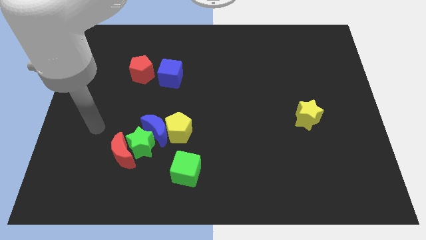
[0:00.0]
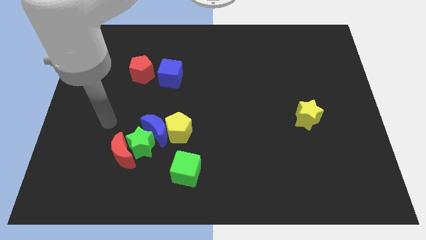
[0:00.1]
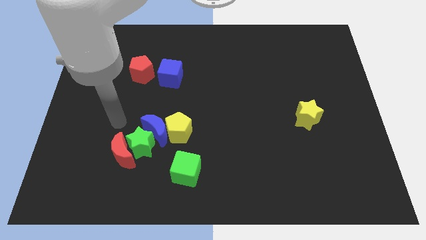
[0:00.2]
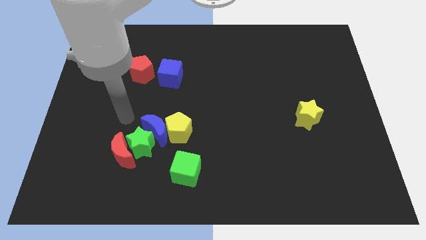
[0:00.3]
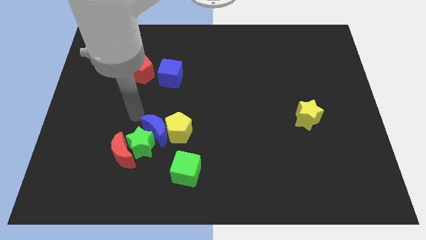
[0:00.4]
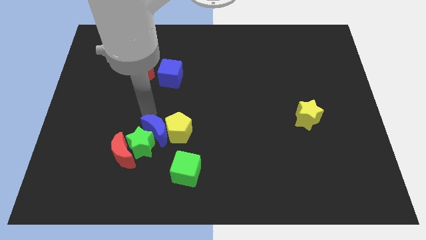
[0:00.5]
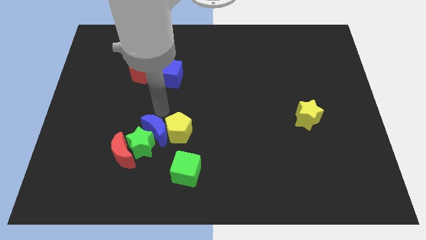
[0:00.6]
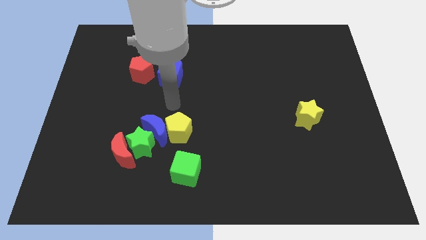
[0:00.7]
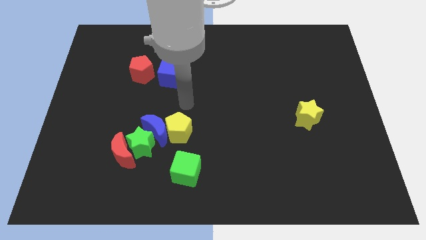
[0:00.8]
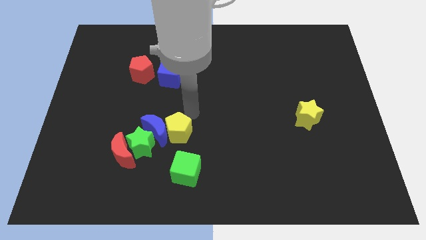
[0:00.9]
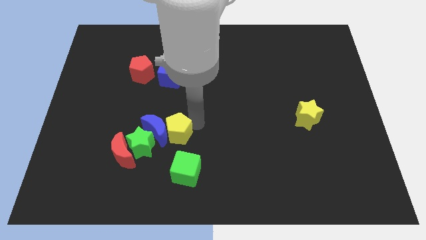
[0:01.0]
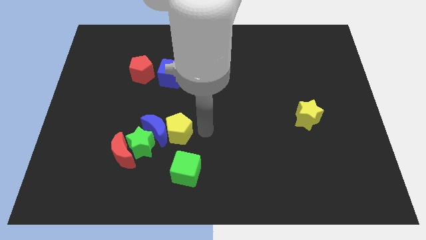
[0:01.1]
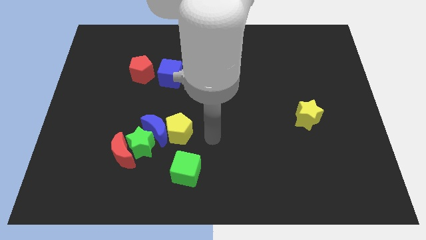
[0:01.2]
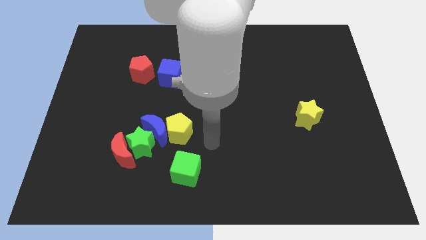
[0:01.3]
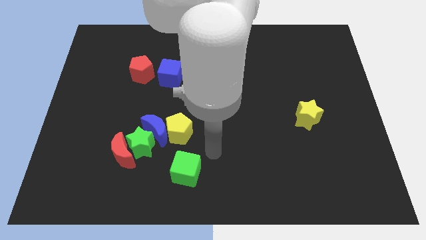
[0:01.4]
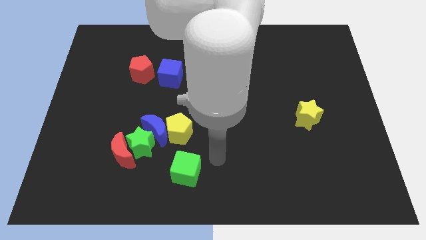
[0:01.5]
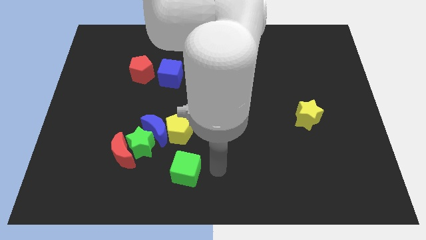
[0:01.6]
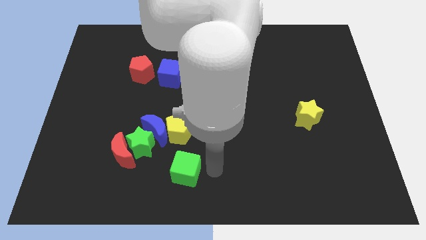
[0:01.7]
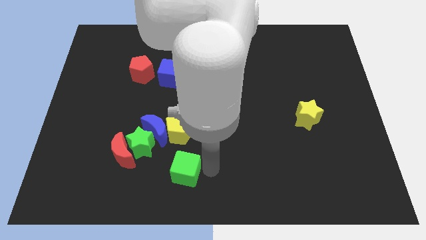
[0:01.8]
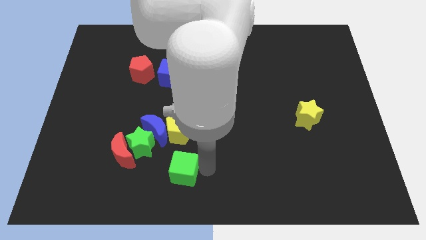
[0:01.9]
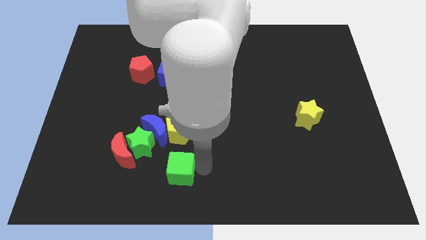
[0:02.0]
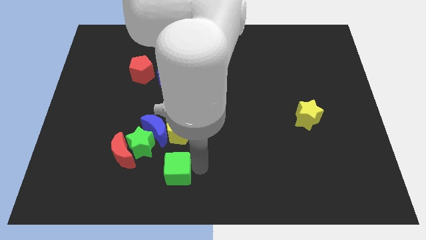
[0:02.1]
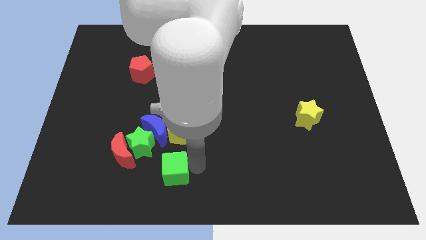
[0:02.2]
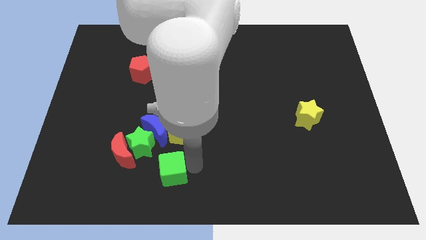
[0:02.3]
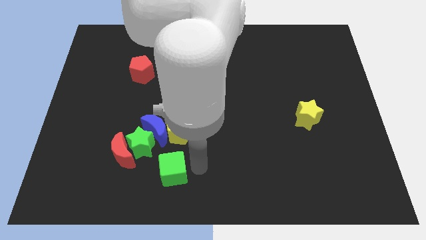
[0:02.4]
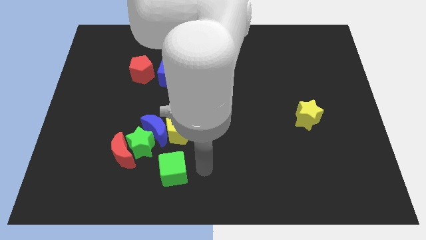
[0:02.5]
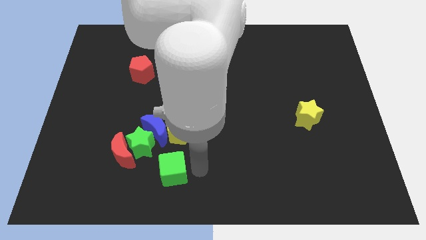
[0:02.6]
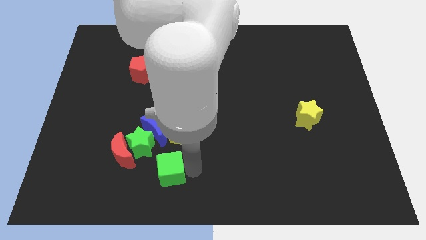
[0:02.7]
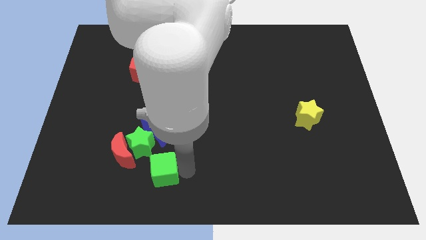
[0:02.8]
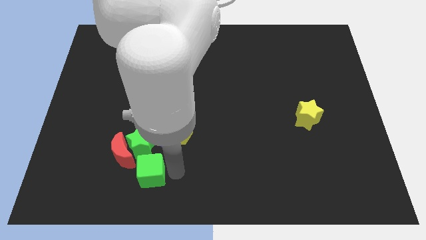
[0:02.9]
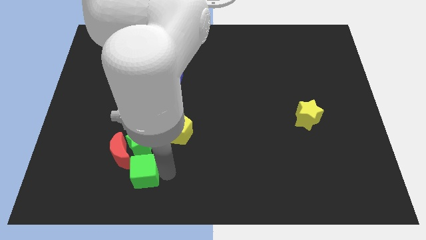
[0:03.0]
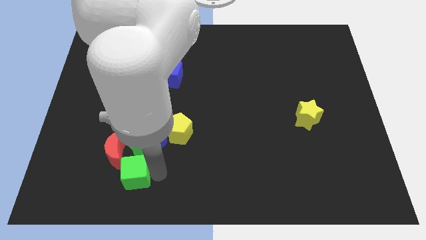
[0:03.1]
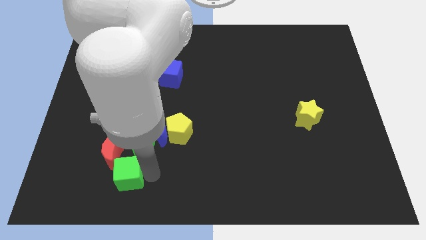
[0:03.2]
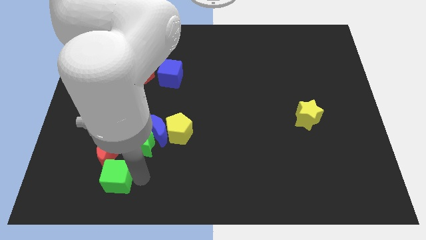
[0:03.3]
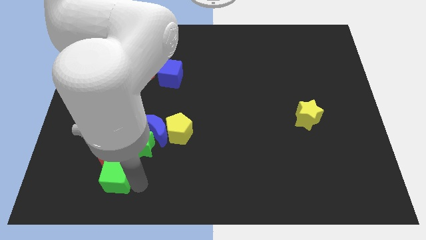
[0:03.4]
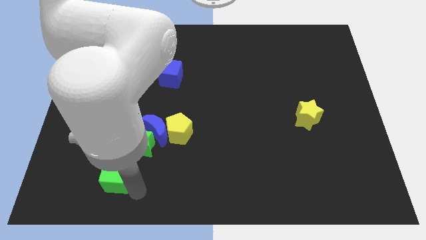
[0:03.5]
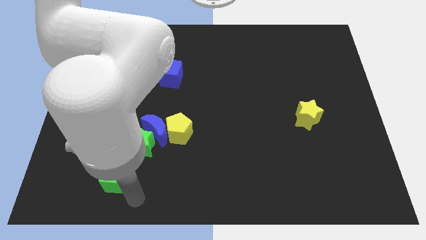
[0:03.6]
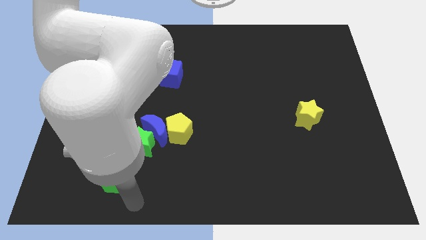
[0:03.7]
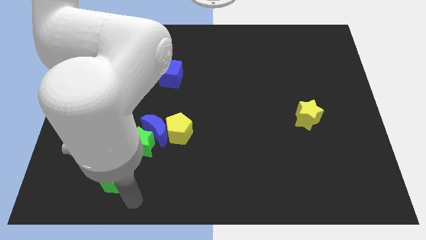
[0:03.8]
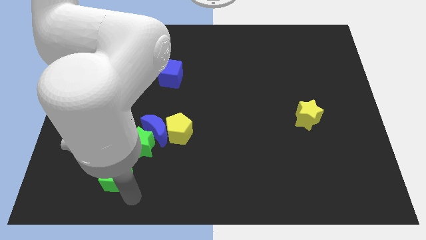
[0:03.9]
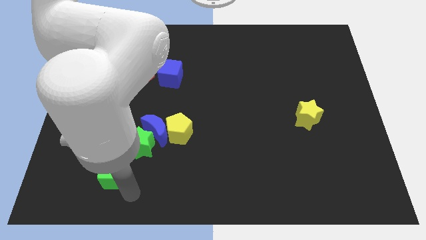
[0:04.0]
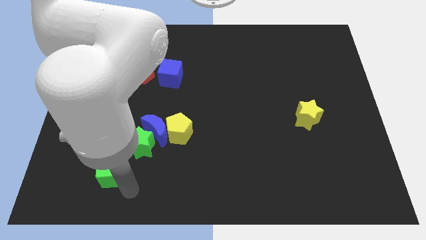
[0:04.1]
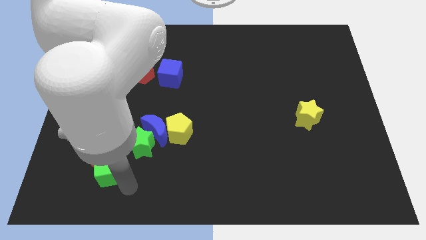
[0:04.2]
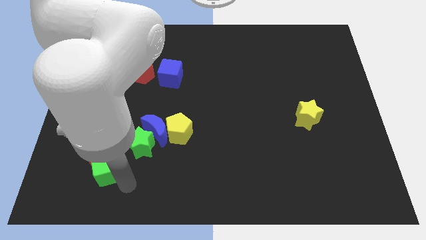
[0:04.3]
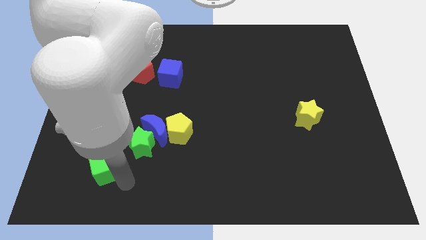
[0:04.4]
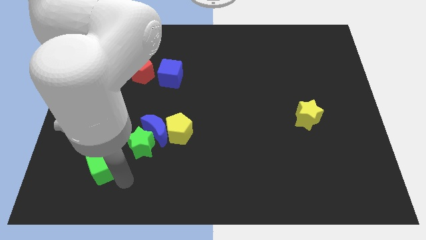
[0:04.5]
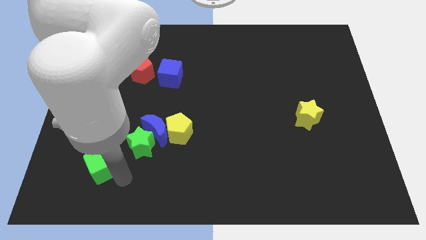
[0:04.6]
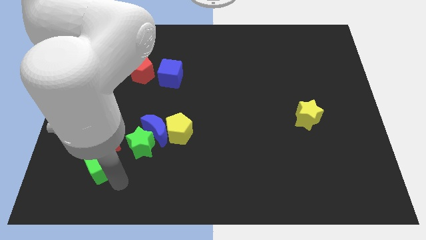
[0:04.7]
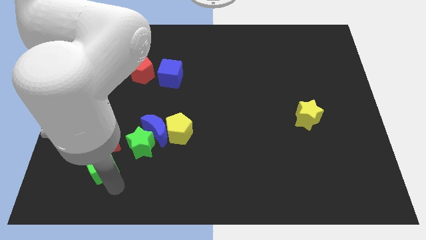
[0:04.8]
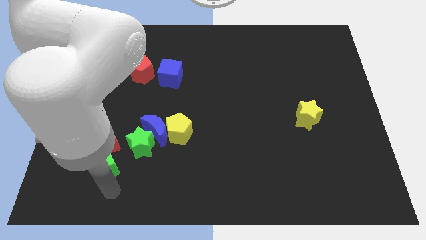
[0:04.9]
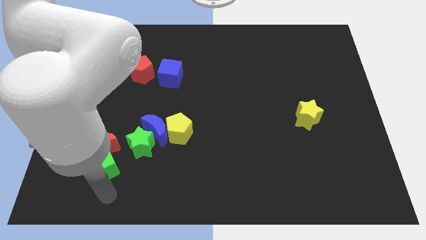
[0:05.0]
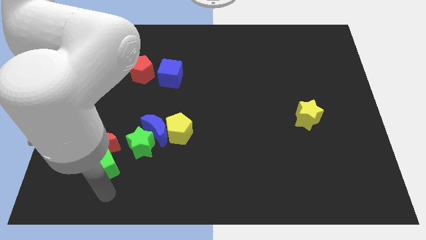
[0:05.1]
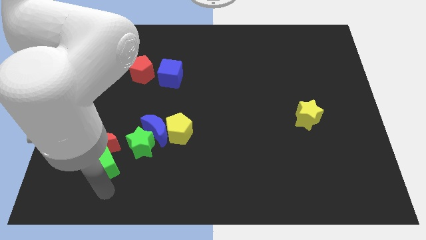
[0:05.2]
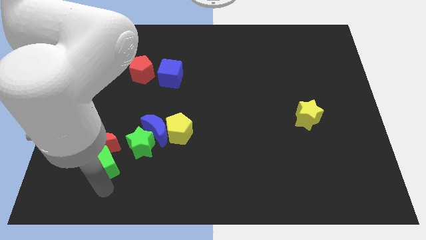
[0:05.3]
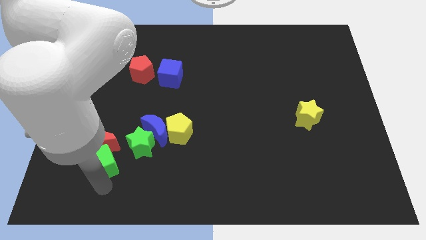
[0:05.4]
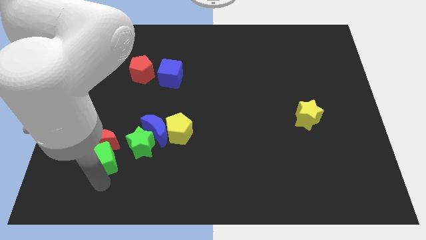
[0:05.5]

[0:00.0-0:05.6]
push the green cube diagonally up and left a little bit

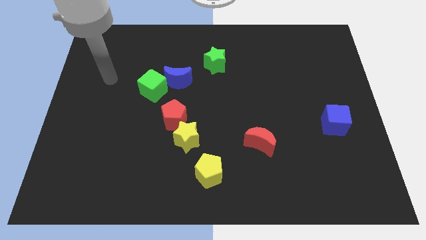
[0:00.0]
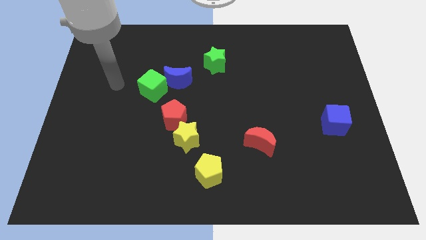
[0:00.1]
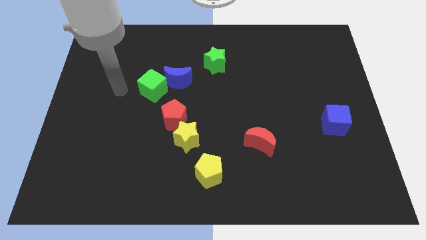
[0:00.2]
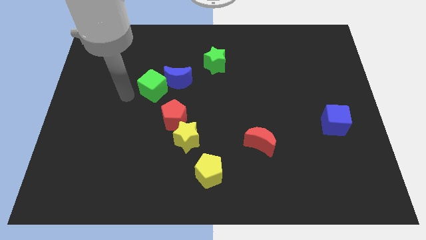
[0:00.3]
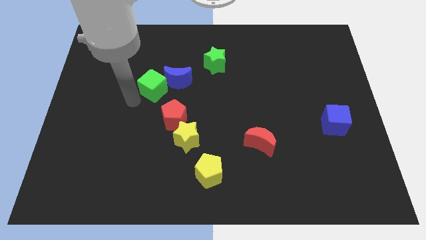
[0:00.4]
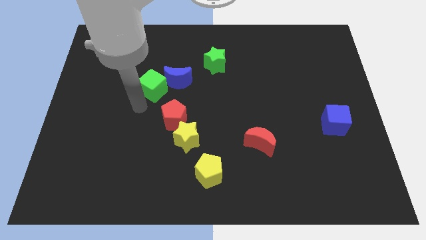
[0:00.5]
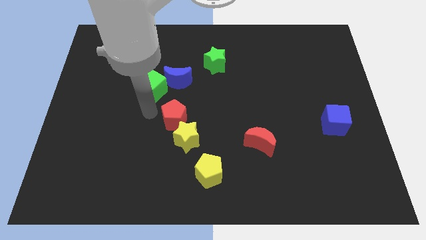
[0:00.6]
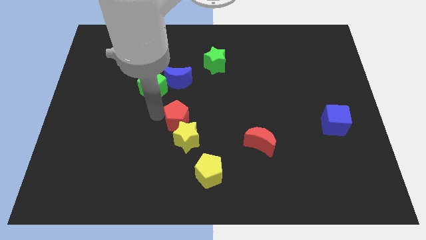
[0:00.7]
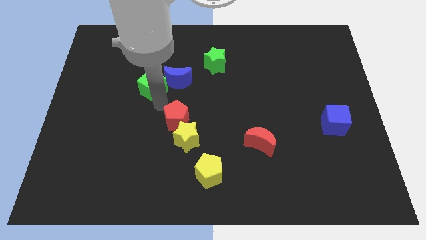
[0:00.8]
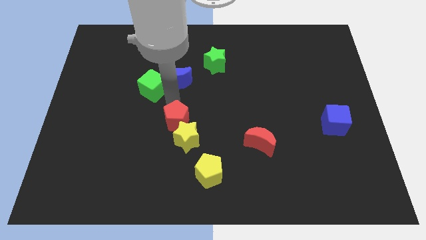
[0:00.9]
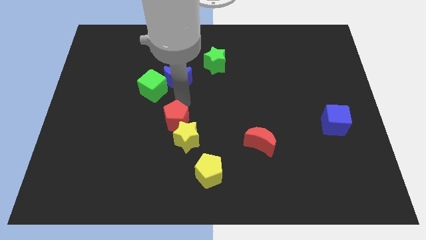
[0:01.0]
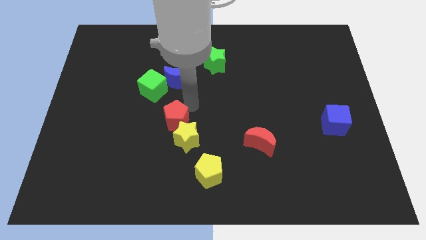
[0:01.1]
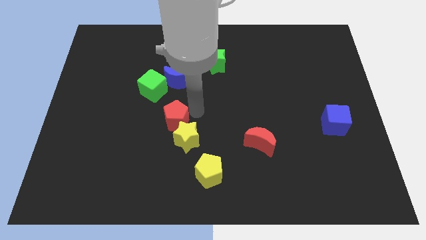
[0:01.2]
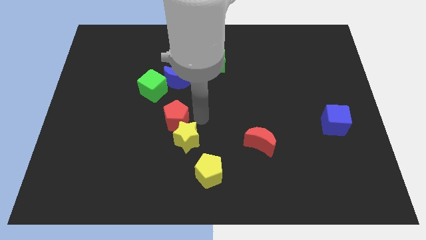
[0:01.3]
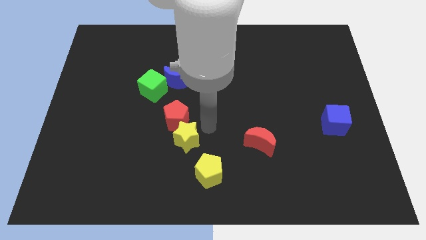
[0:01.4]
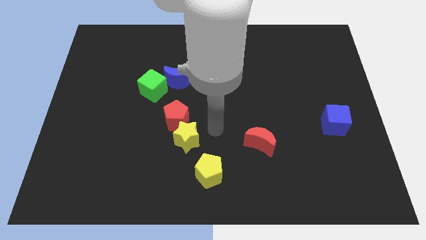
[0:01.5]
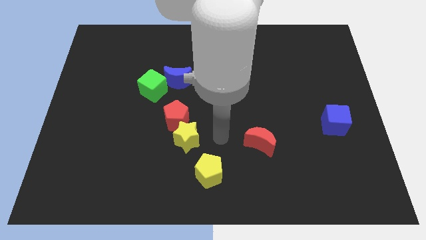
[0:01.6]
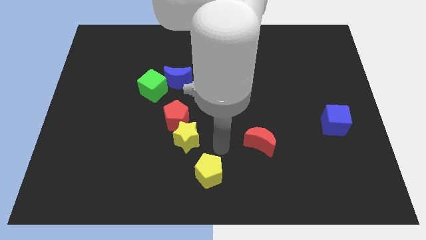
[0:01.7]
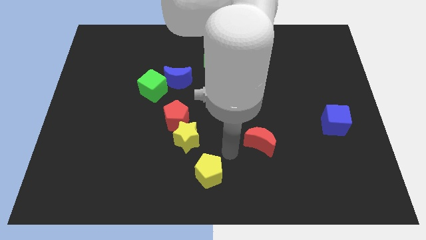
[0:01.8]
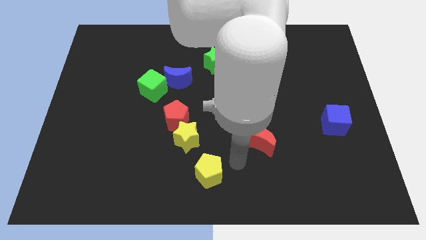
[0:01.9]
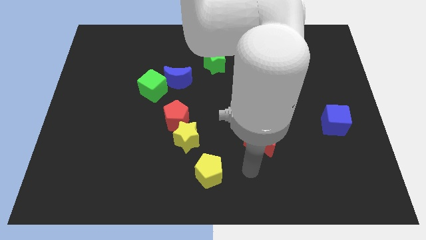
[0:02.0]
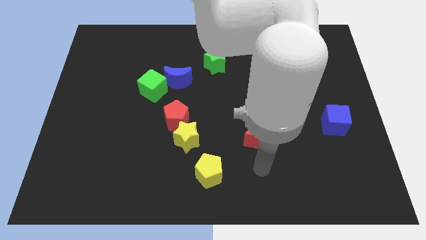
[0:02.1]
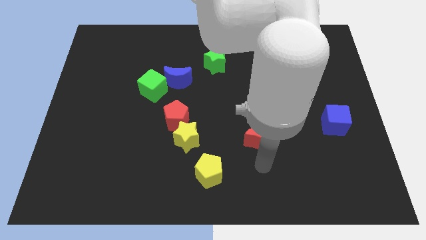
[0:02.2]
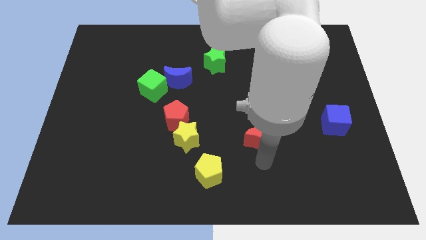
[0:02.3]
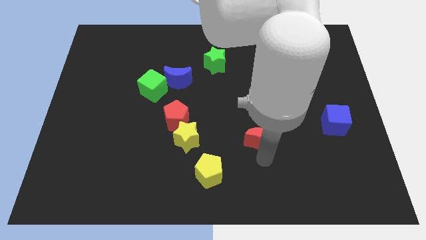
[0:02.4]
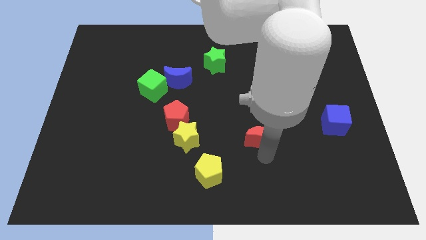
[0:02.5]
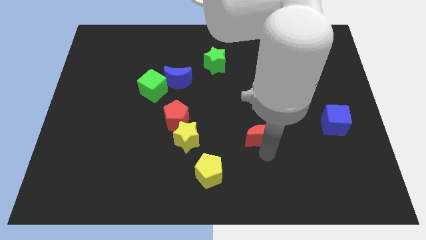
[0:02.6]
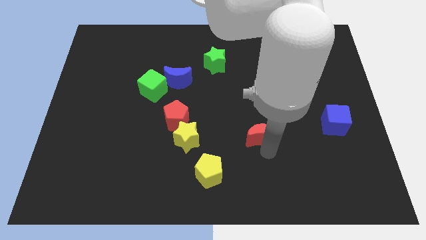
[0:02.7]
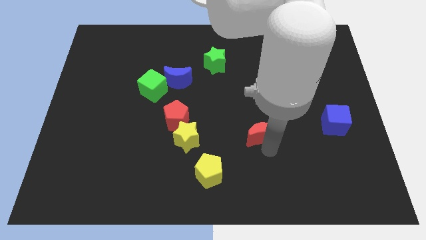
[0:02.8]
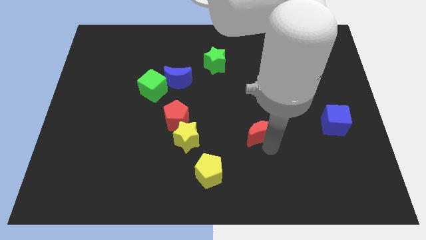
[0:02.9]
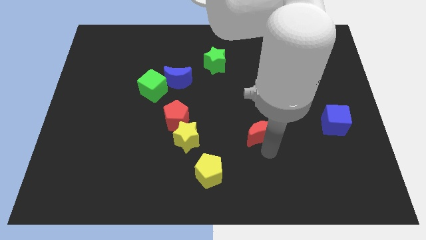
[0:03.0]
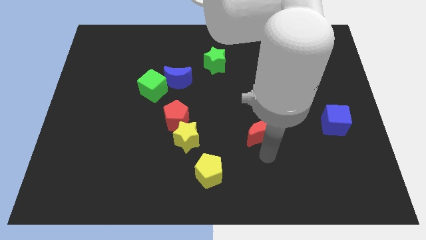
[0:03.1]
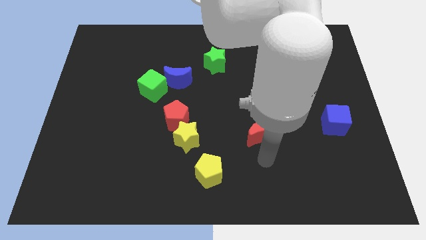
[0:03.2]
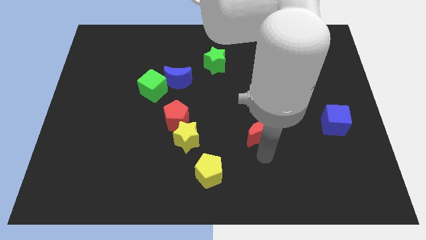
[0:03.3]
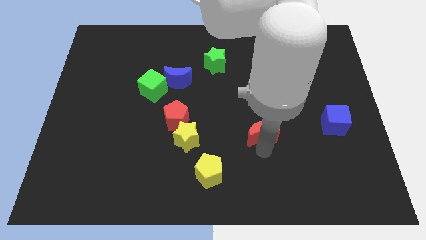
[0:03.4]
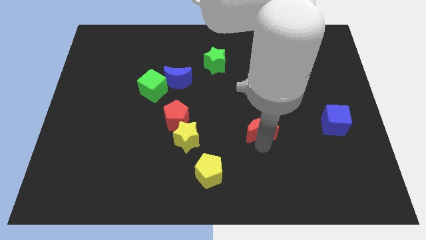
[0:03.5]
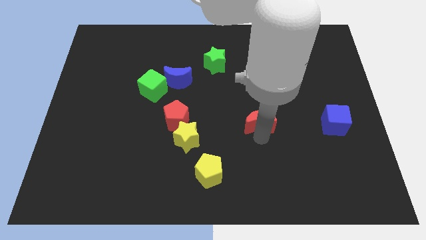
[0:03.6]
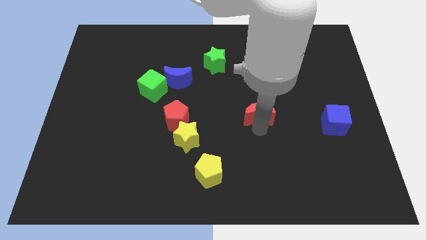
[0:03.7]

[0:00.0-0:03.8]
slightly move the red moon up
